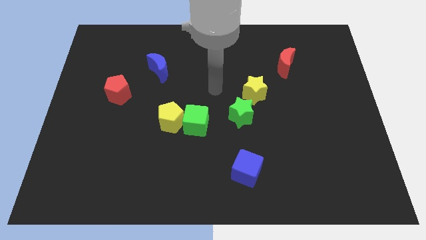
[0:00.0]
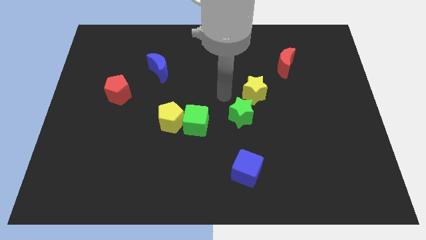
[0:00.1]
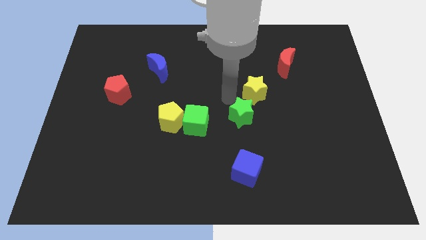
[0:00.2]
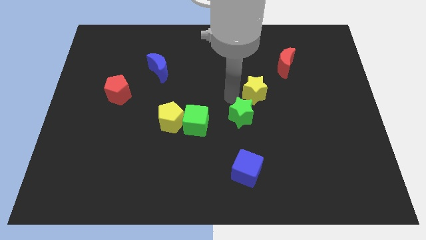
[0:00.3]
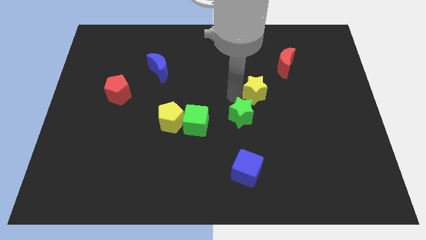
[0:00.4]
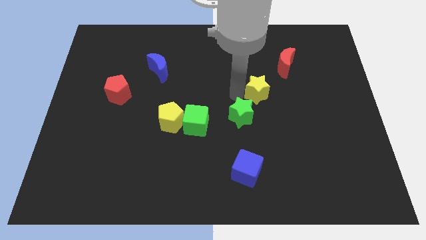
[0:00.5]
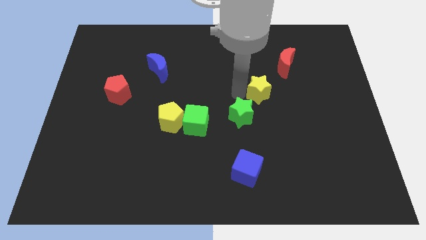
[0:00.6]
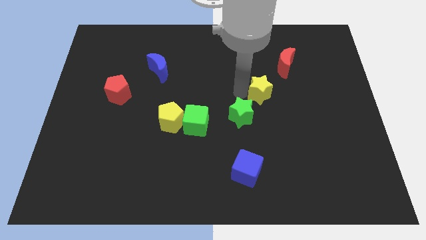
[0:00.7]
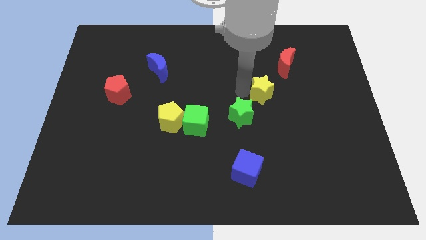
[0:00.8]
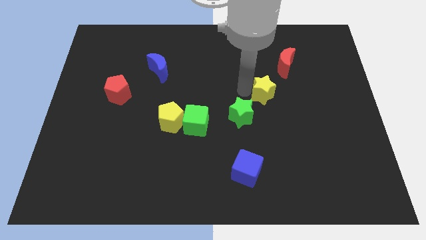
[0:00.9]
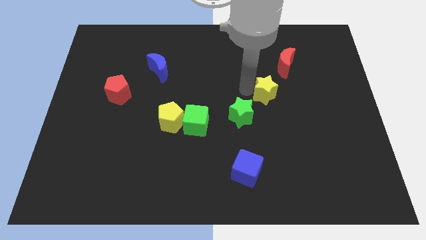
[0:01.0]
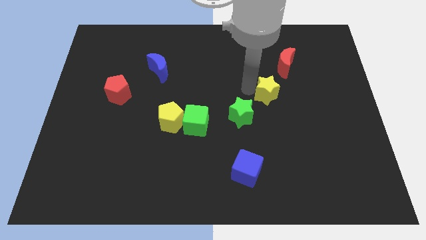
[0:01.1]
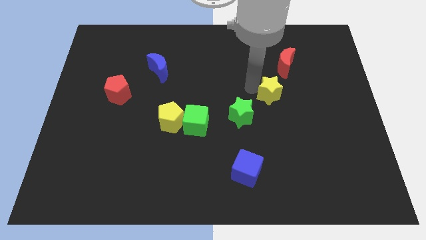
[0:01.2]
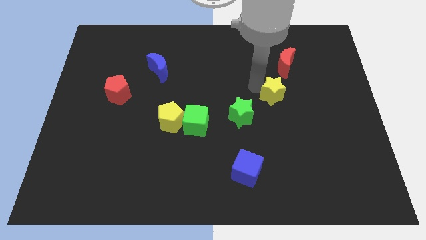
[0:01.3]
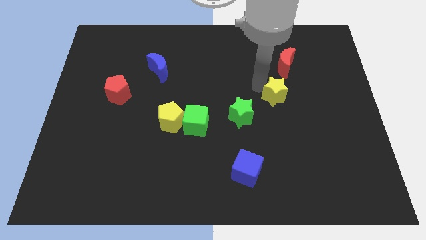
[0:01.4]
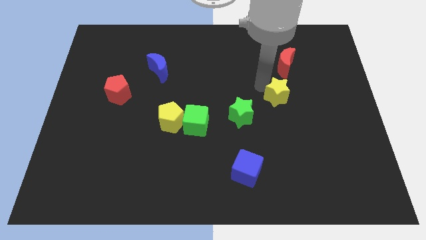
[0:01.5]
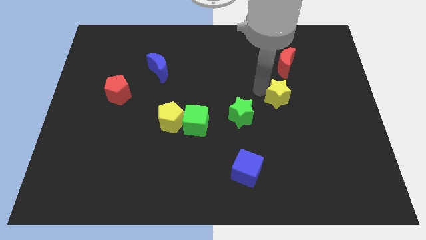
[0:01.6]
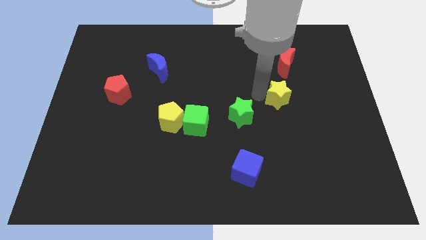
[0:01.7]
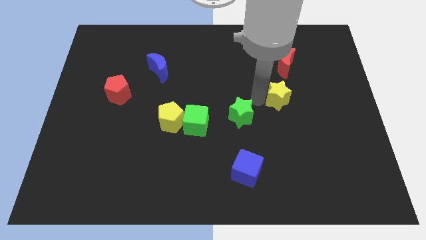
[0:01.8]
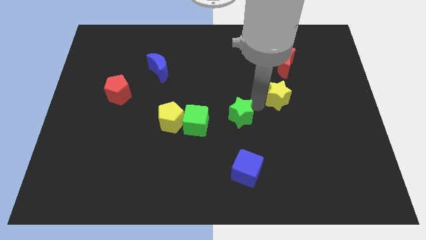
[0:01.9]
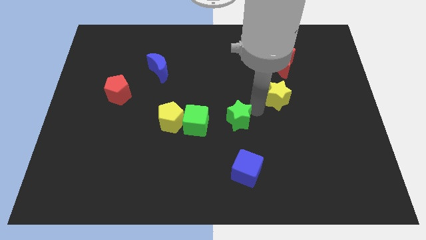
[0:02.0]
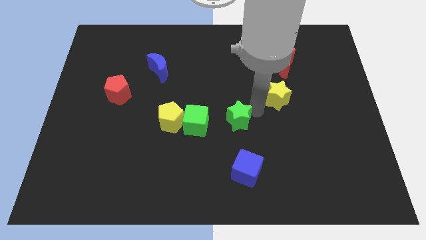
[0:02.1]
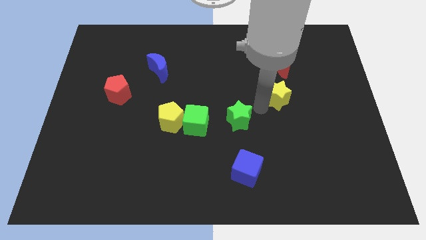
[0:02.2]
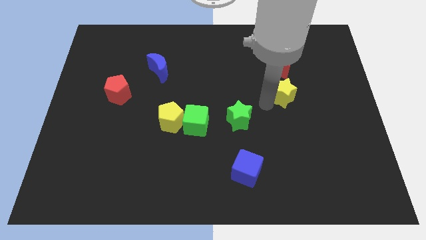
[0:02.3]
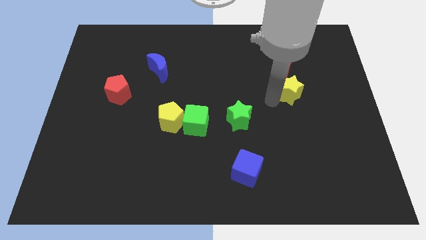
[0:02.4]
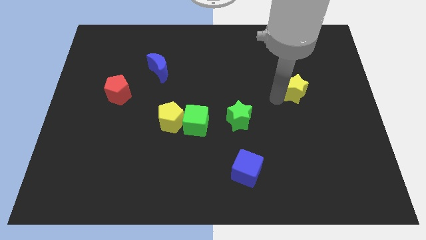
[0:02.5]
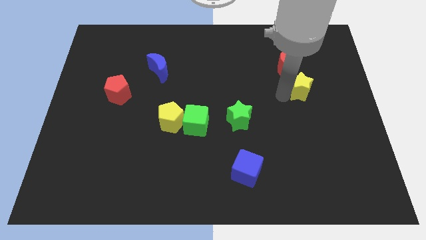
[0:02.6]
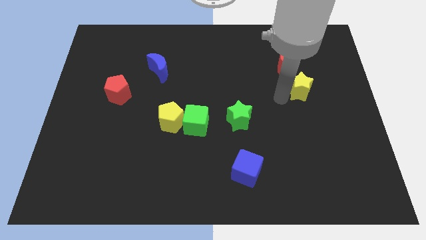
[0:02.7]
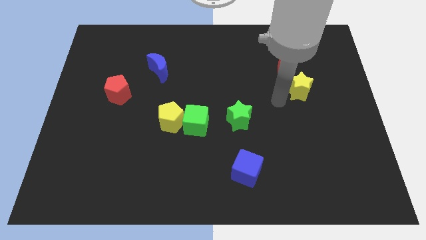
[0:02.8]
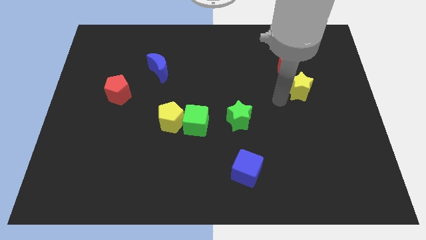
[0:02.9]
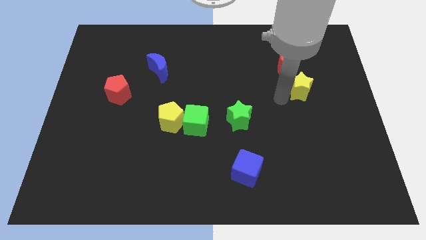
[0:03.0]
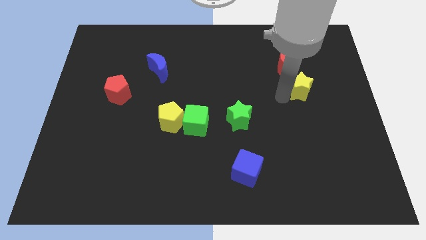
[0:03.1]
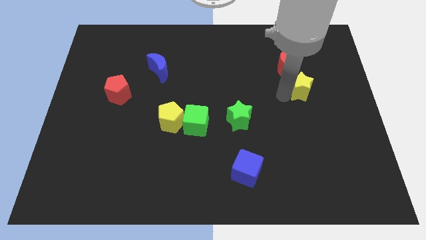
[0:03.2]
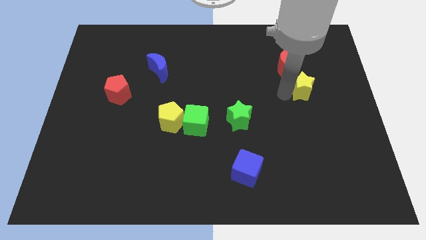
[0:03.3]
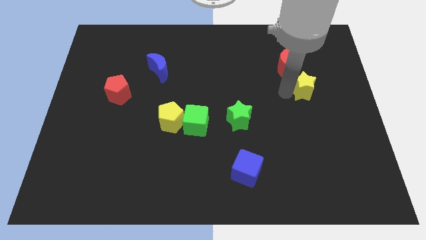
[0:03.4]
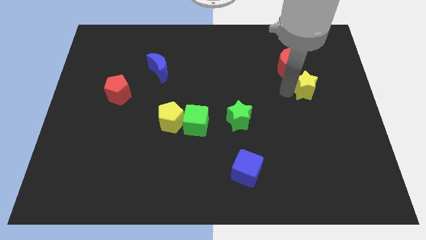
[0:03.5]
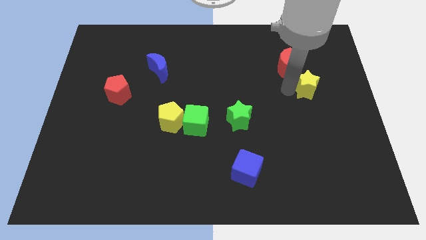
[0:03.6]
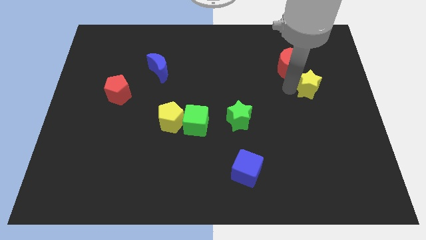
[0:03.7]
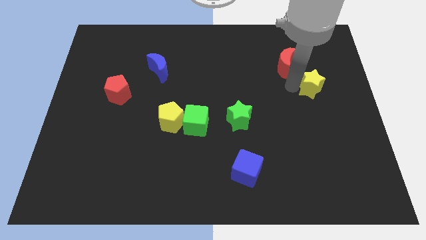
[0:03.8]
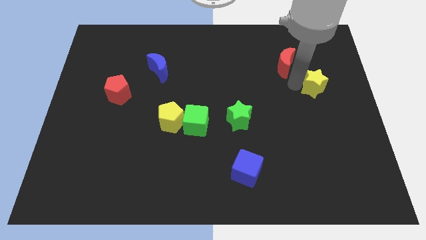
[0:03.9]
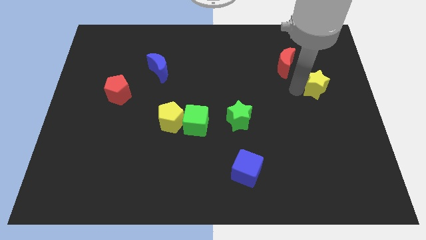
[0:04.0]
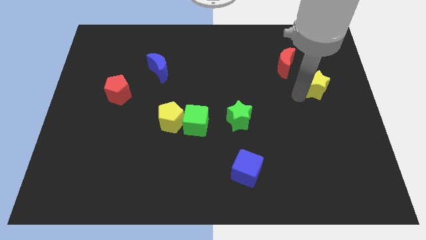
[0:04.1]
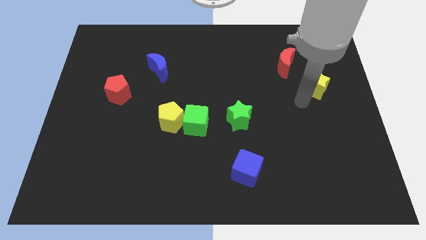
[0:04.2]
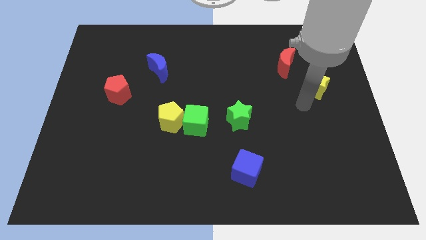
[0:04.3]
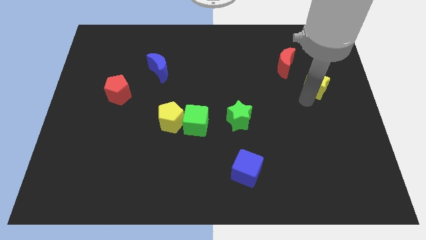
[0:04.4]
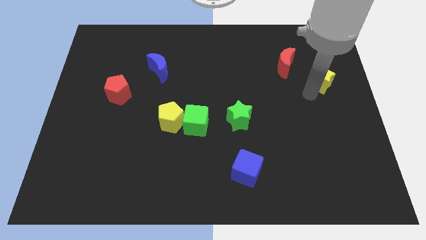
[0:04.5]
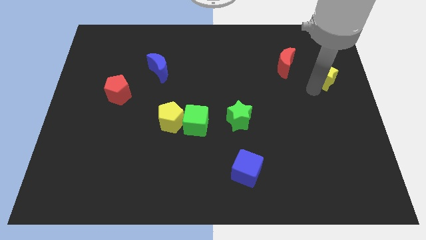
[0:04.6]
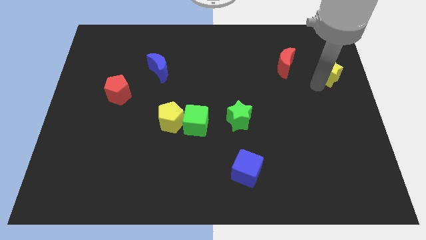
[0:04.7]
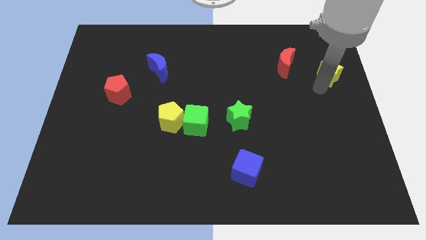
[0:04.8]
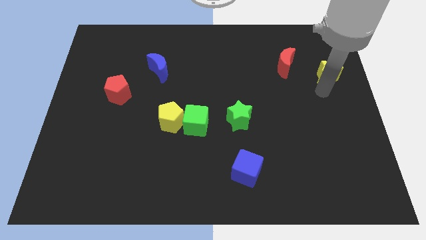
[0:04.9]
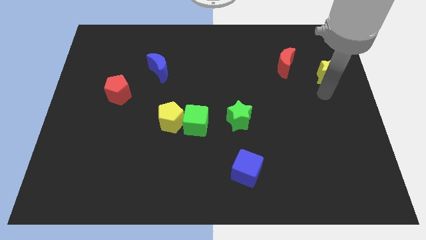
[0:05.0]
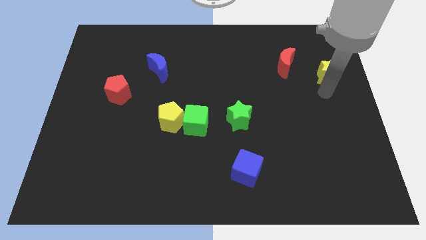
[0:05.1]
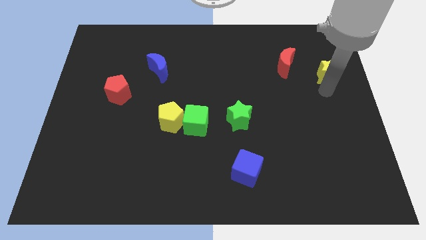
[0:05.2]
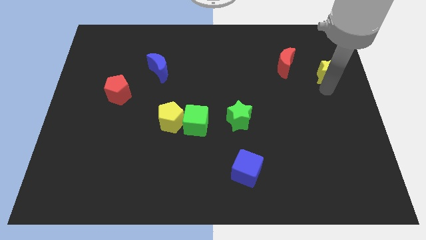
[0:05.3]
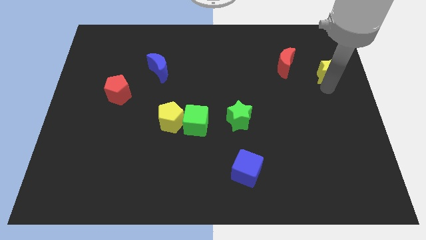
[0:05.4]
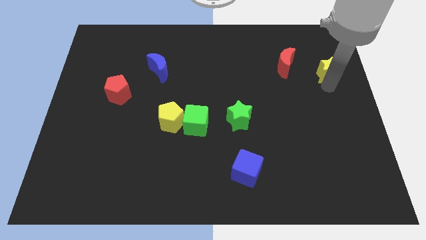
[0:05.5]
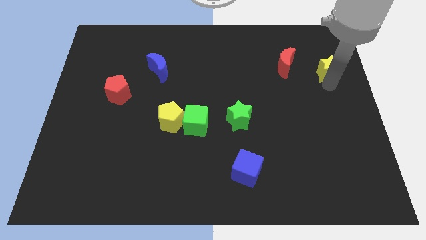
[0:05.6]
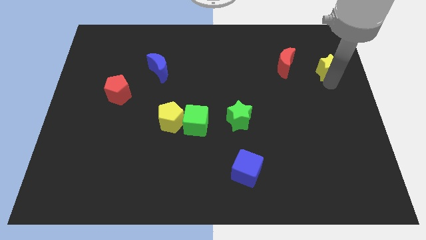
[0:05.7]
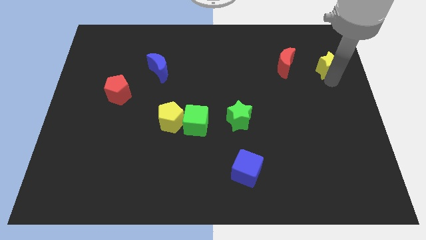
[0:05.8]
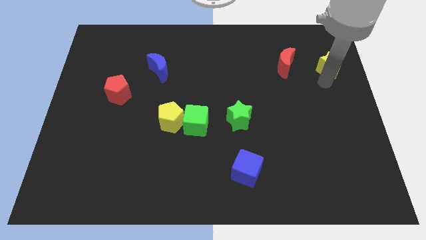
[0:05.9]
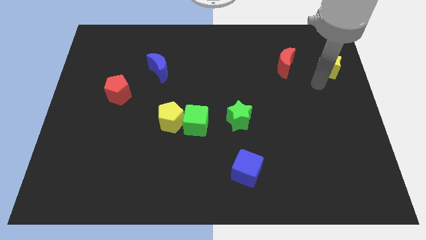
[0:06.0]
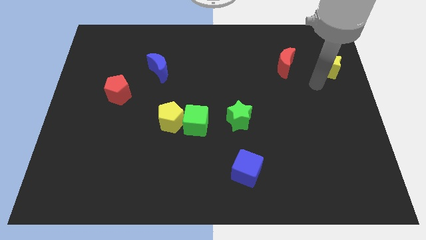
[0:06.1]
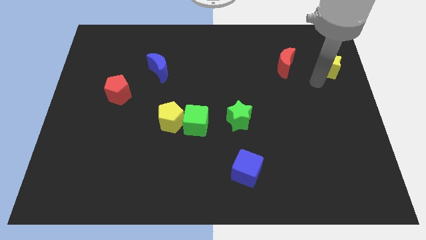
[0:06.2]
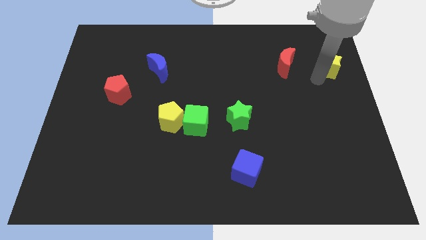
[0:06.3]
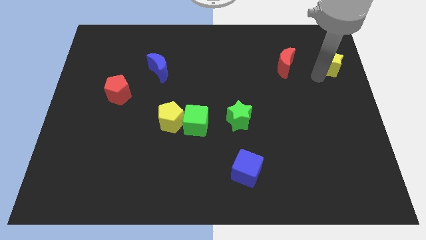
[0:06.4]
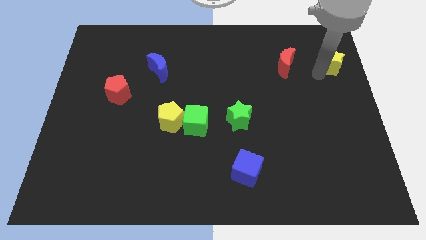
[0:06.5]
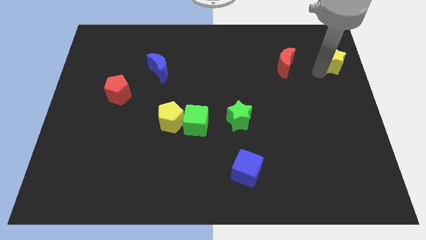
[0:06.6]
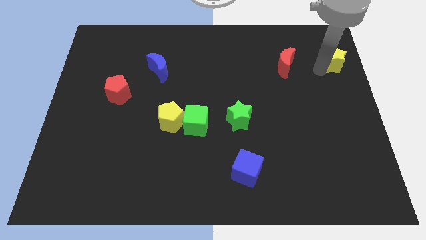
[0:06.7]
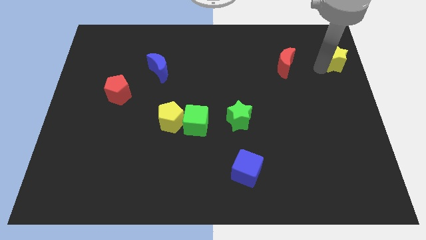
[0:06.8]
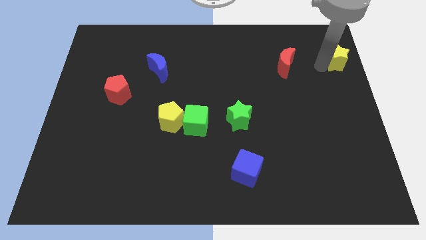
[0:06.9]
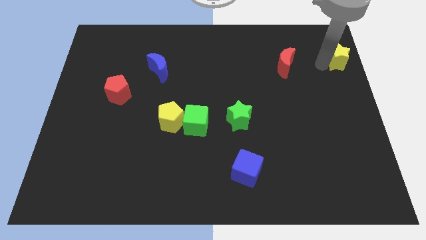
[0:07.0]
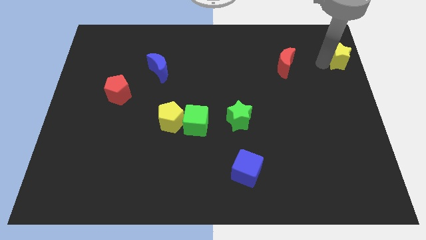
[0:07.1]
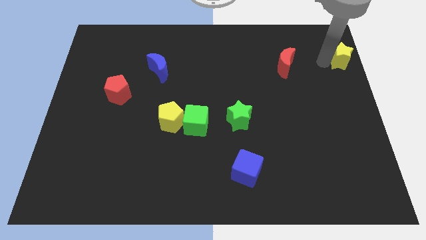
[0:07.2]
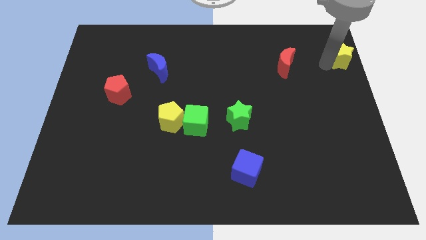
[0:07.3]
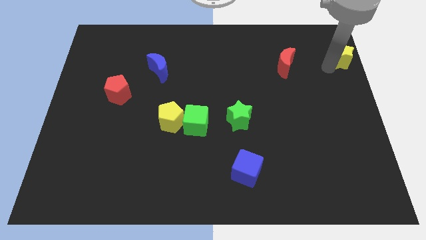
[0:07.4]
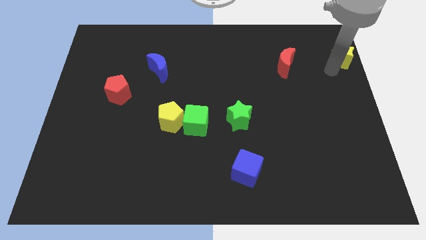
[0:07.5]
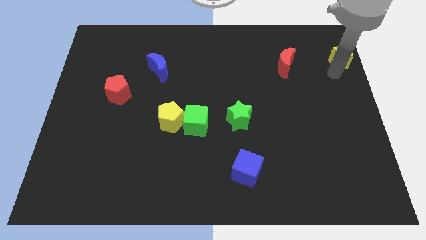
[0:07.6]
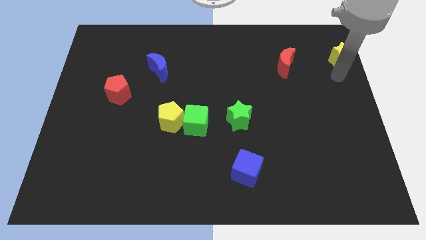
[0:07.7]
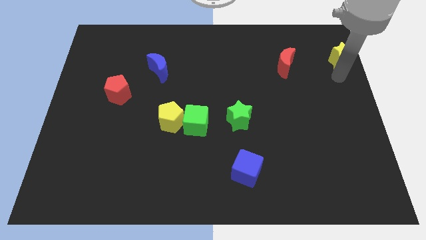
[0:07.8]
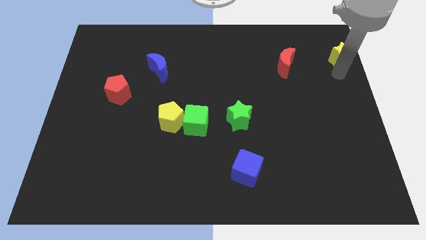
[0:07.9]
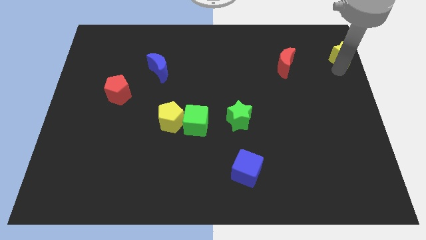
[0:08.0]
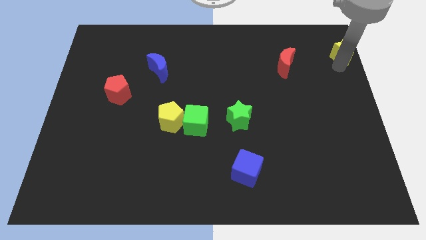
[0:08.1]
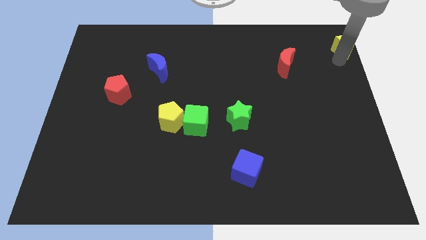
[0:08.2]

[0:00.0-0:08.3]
push the yellow star to the top right of the board
